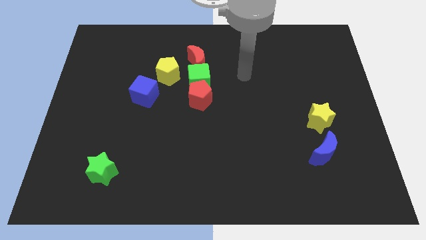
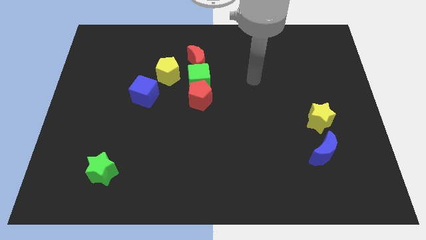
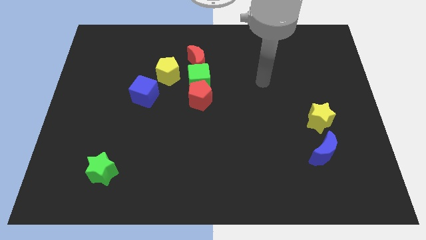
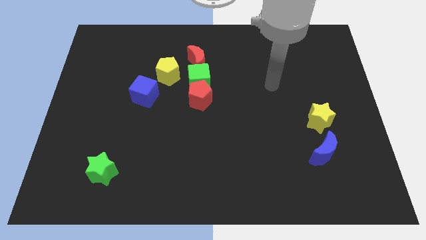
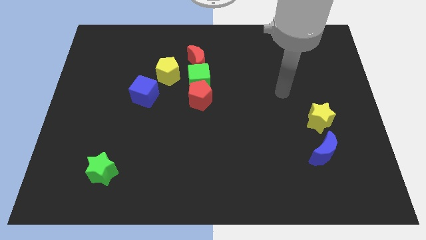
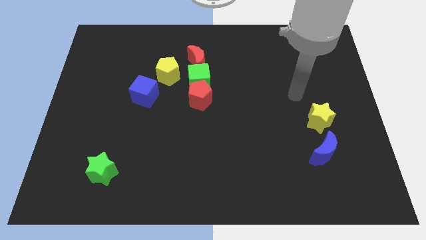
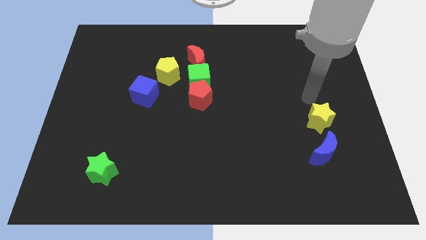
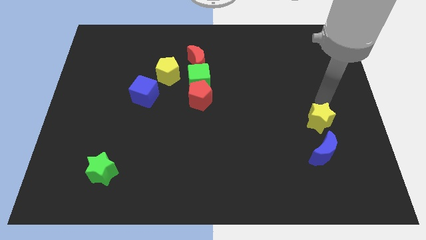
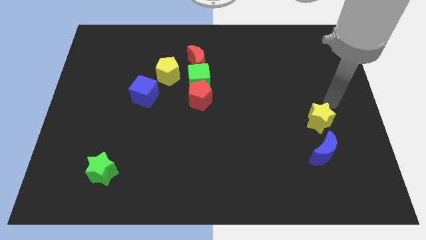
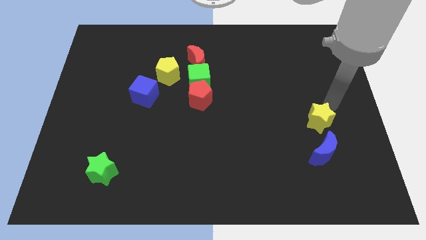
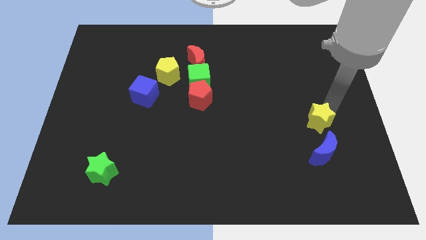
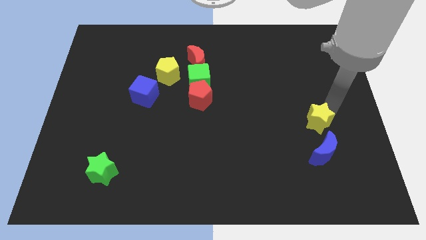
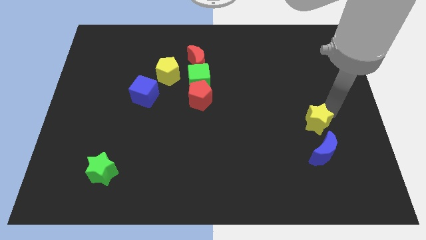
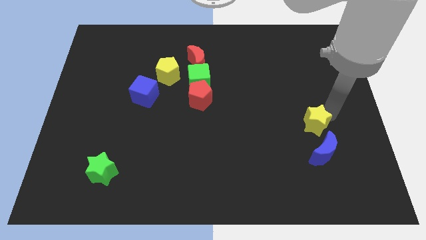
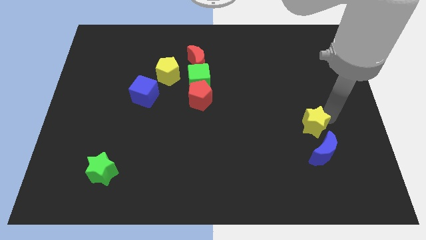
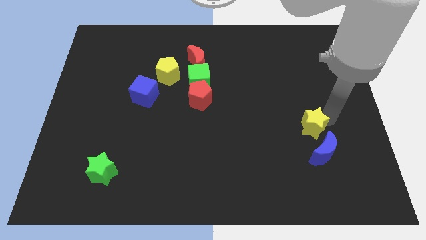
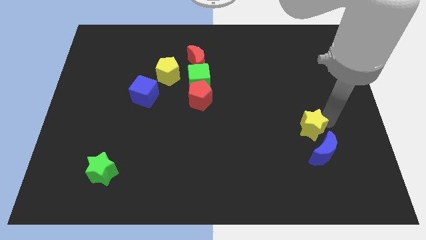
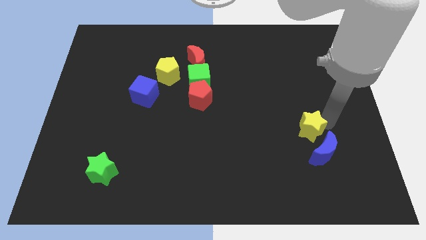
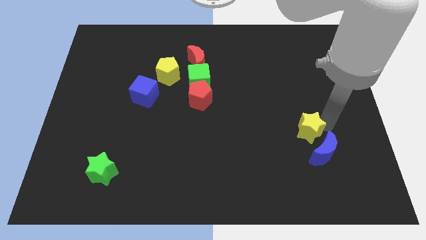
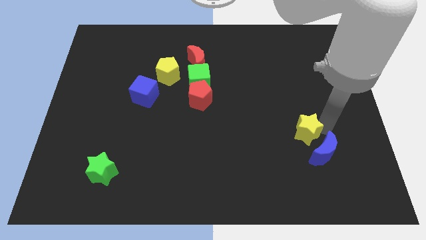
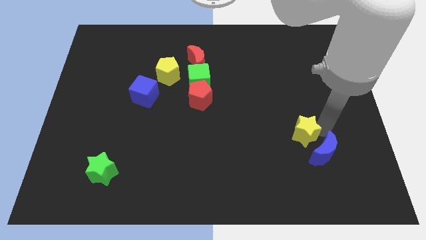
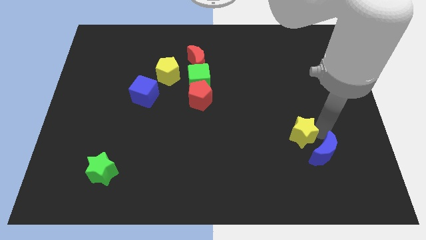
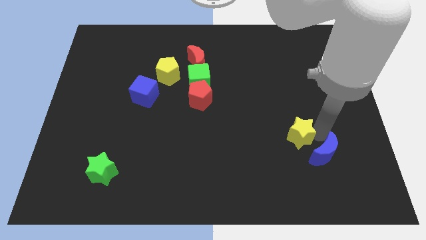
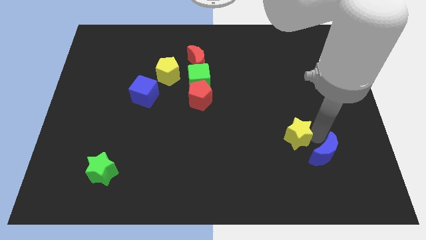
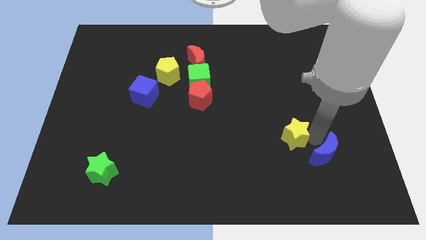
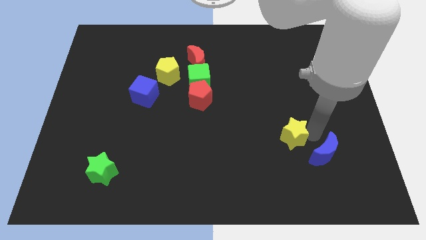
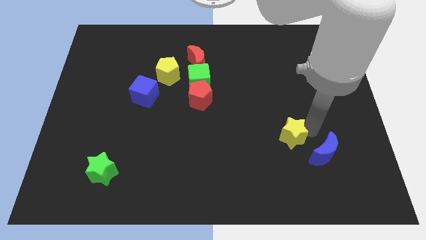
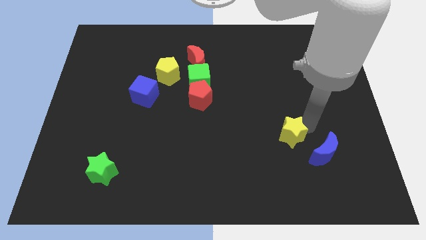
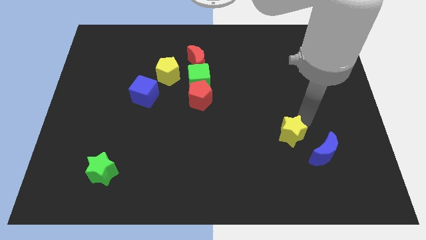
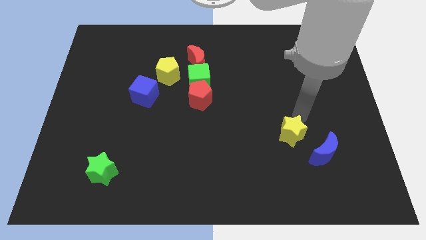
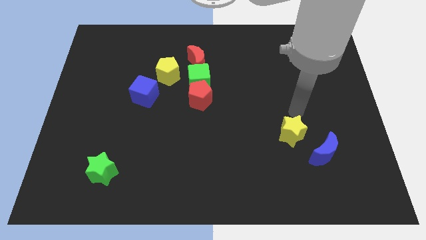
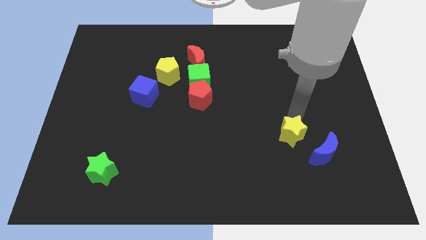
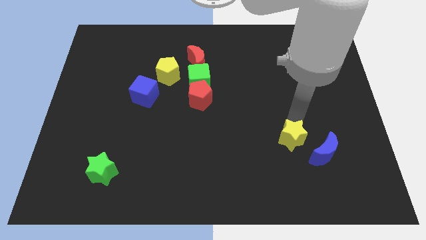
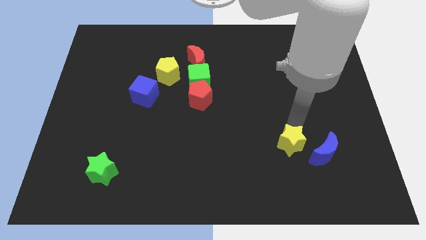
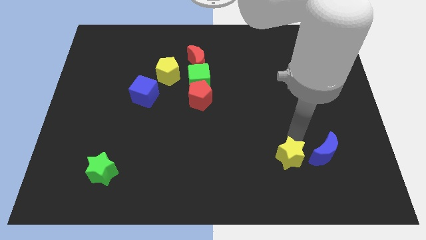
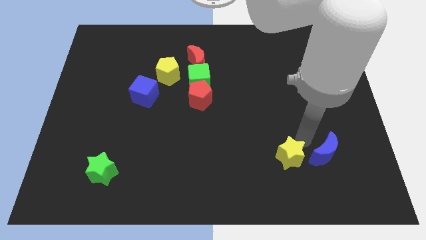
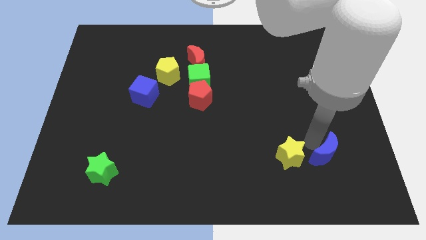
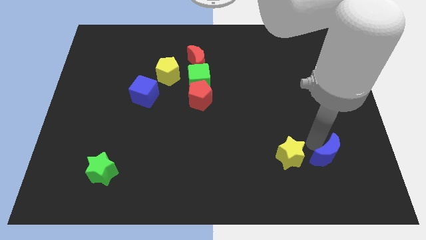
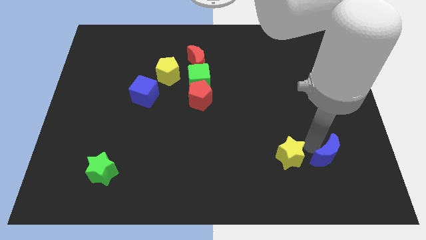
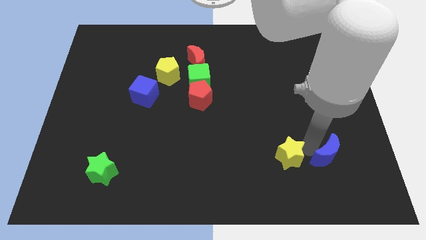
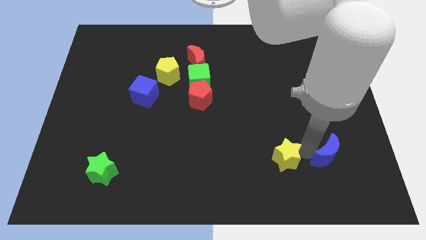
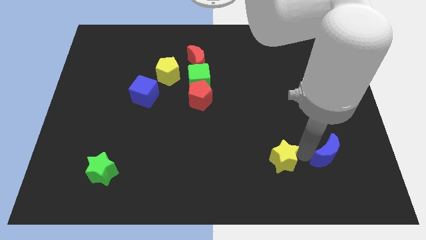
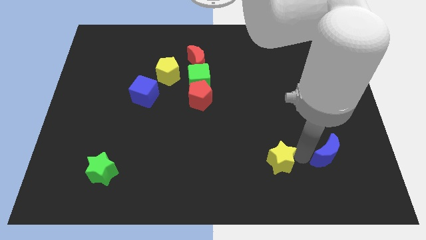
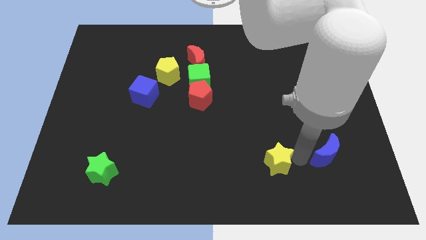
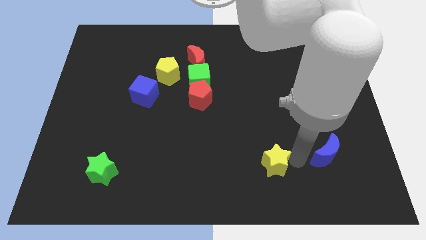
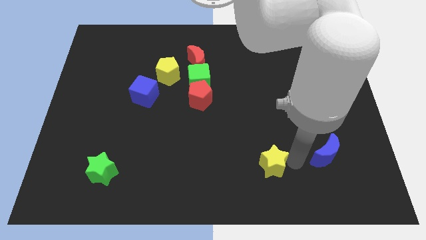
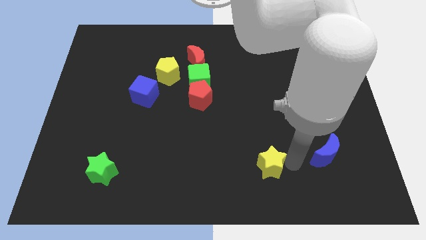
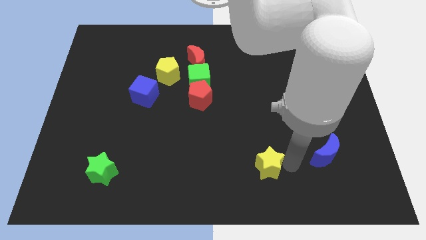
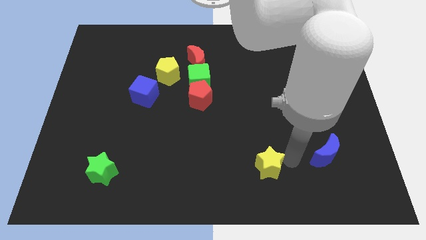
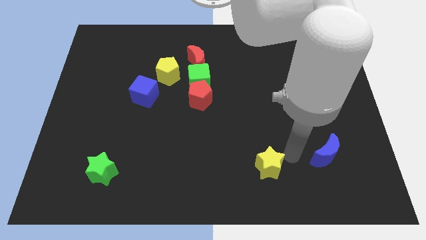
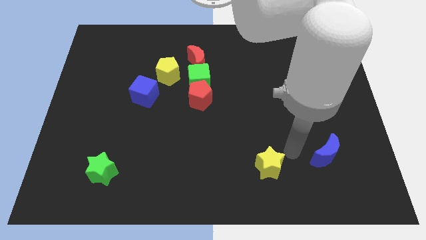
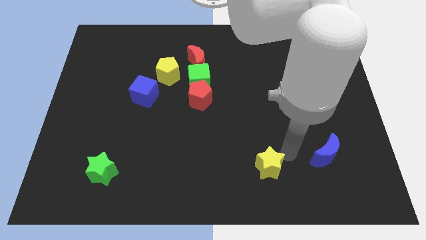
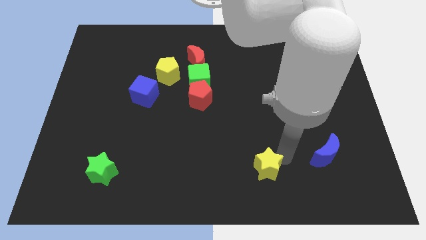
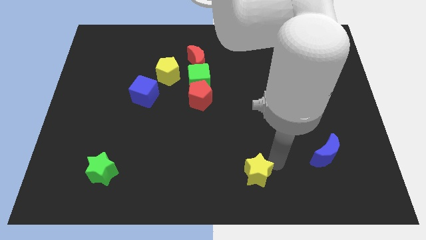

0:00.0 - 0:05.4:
put the yellow star to the bottom side
